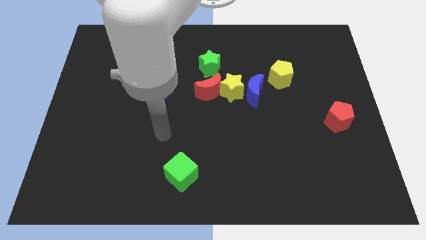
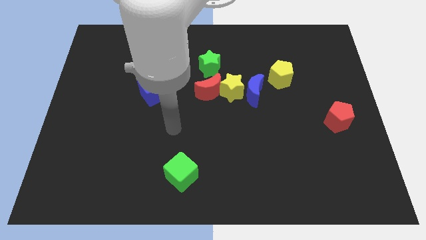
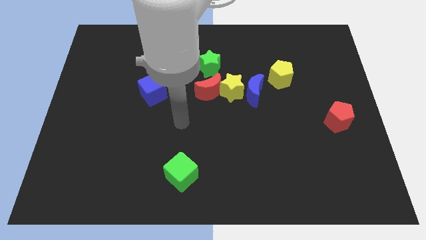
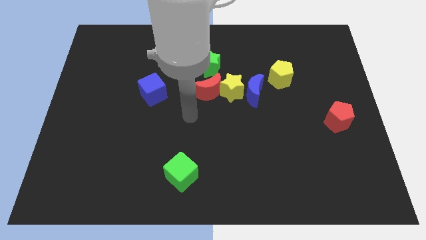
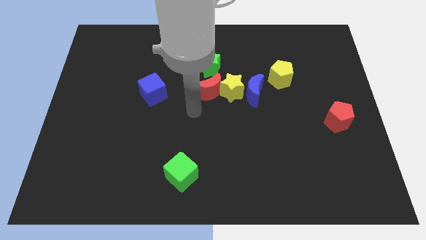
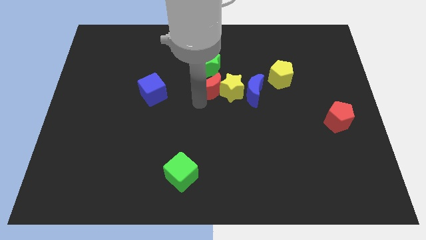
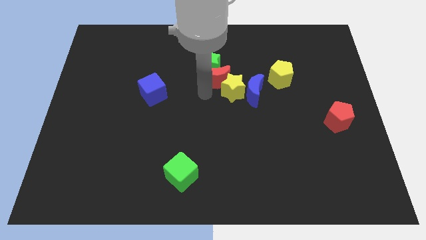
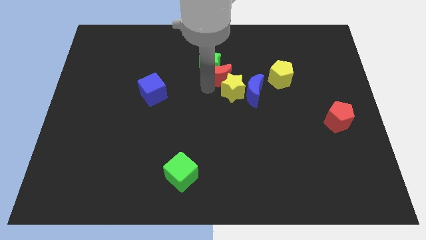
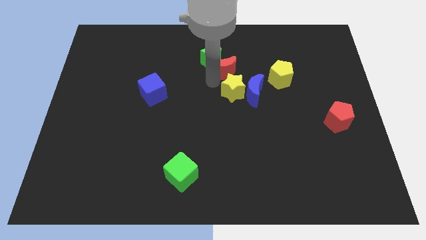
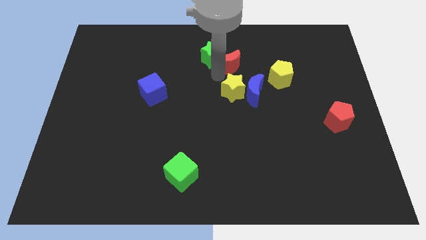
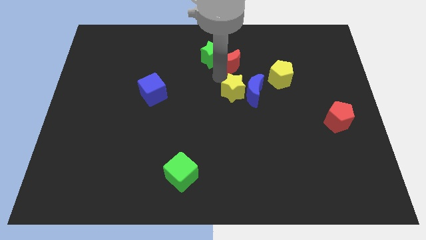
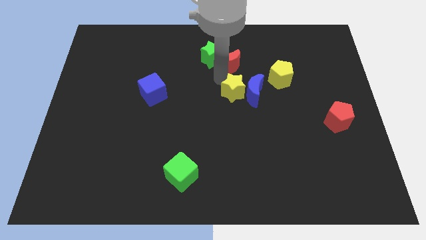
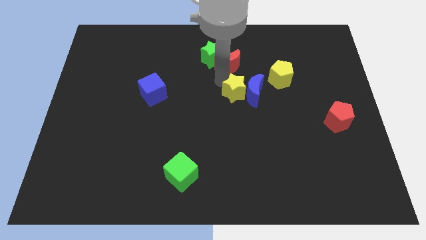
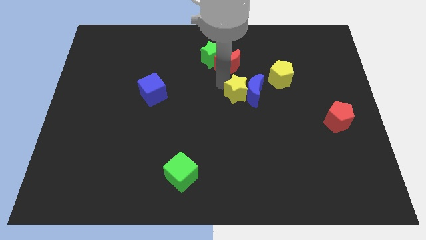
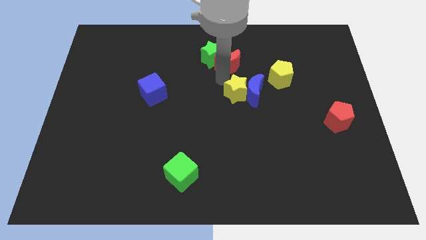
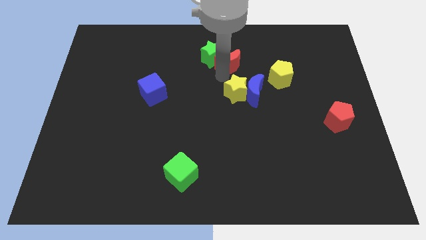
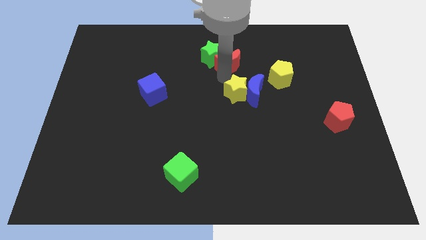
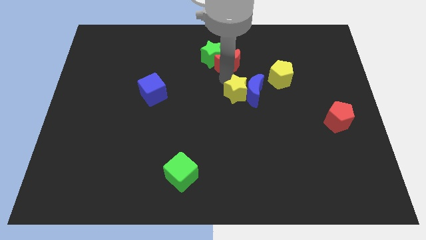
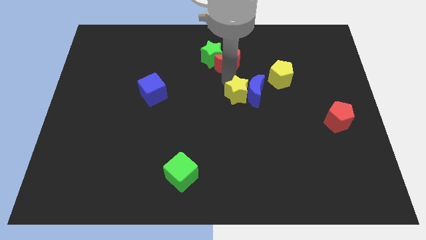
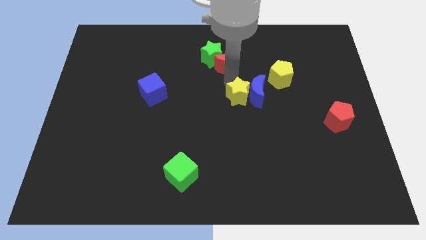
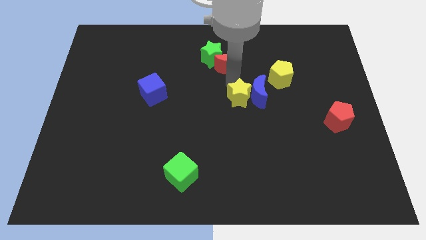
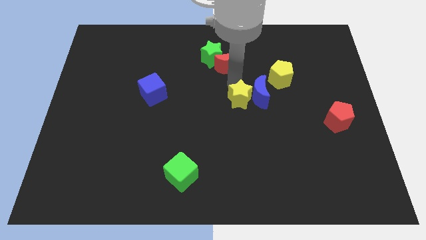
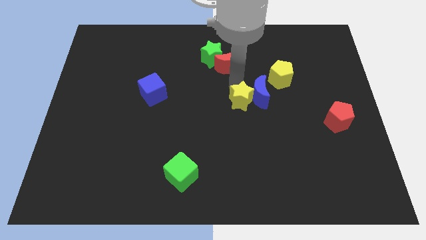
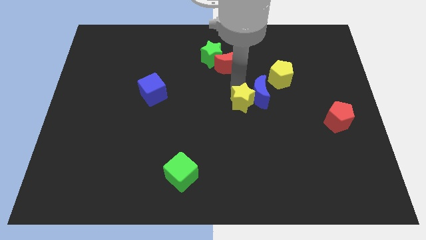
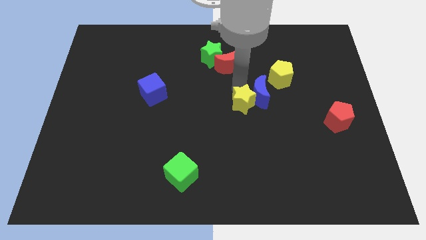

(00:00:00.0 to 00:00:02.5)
pull the yellow star apart from the blue moon, red moon, and green star

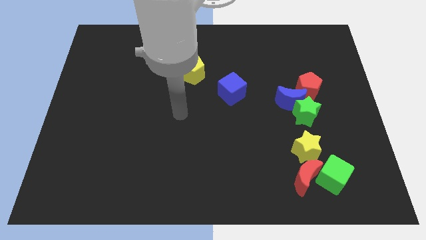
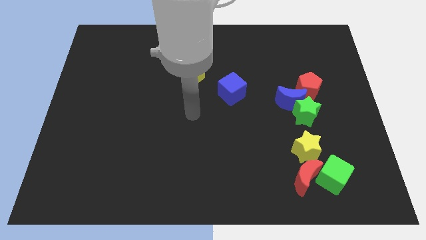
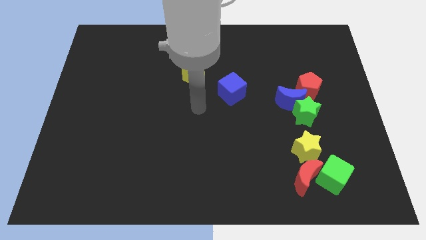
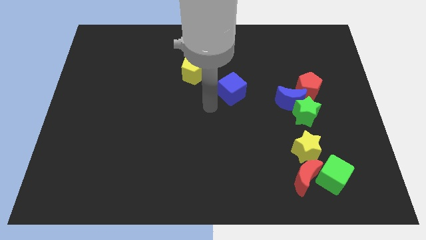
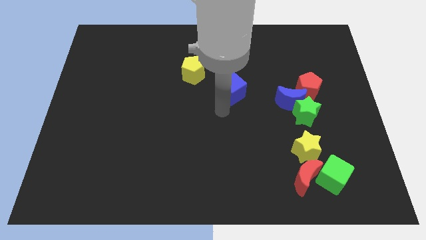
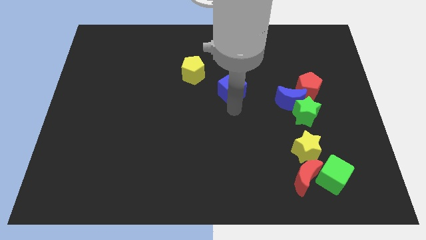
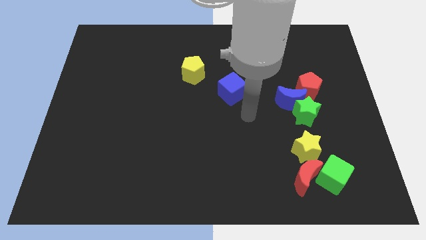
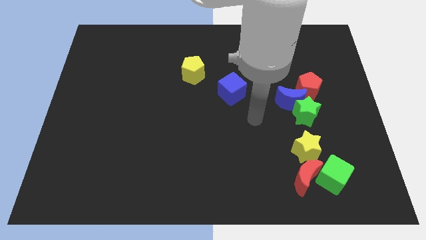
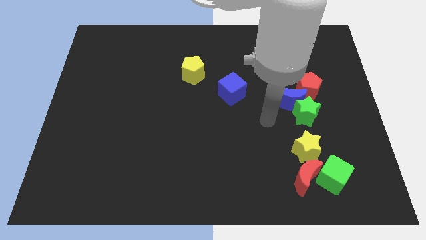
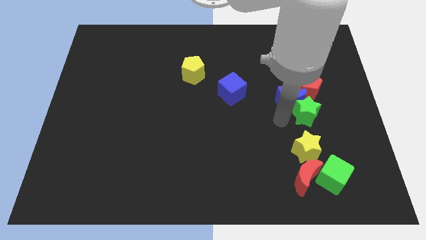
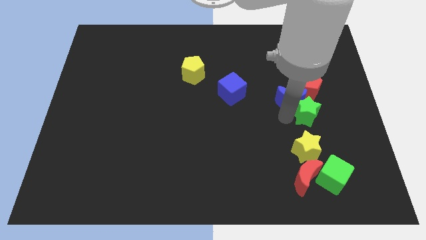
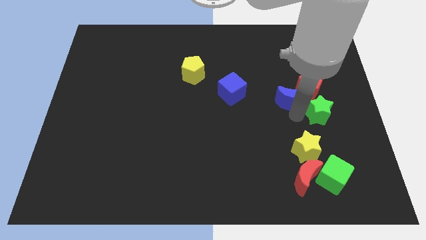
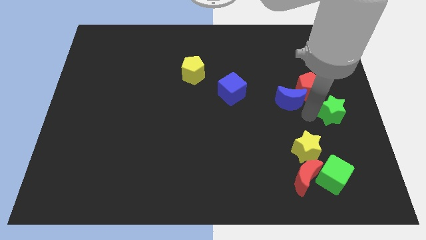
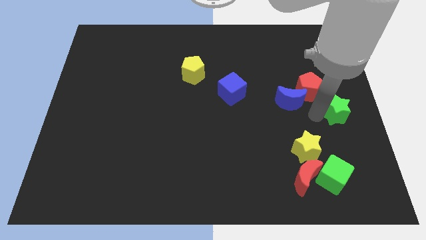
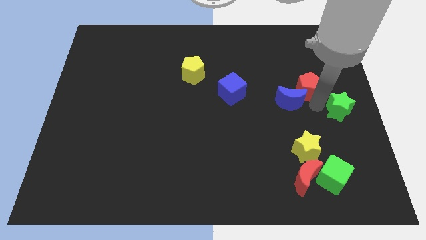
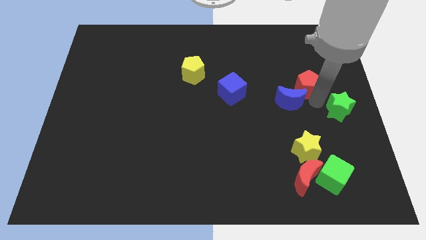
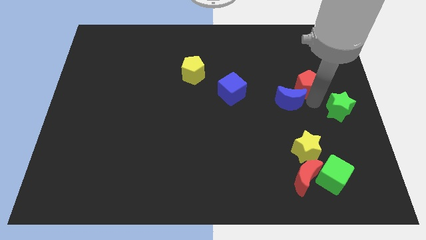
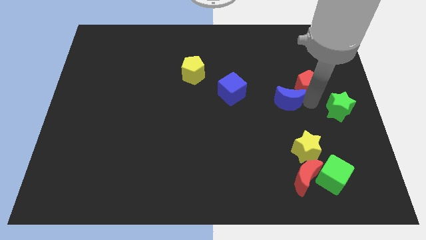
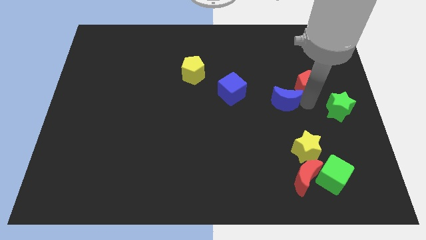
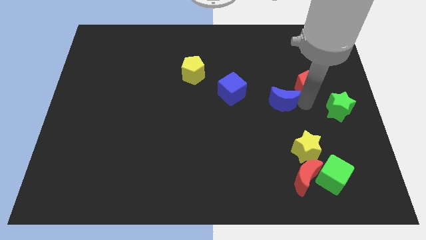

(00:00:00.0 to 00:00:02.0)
separate the blue moon from the green star and red pentagon

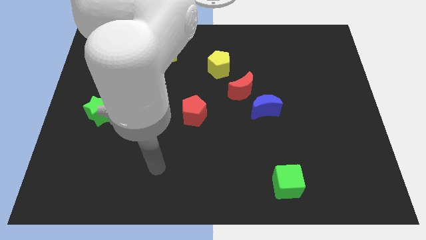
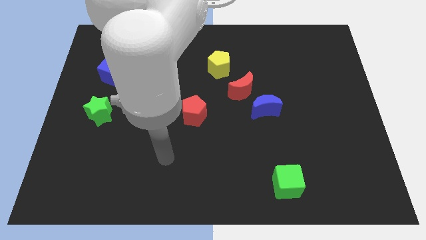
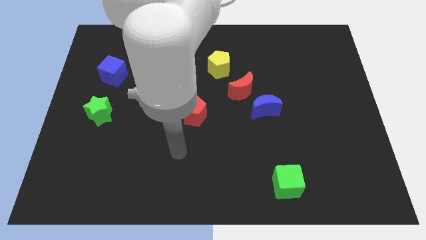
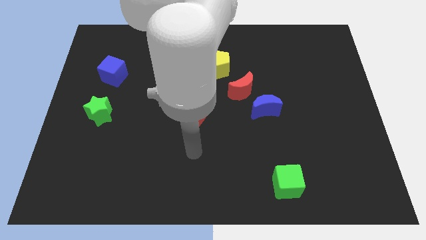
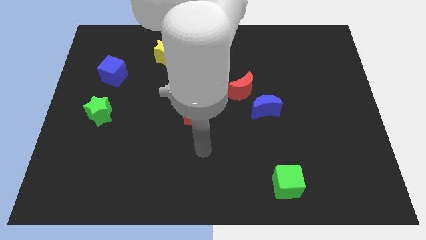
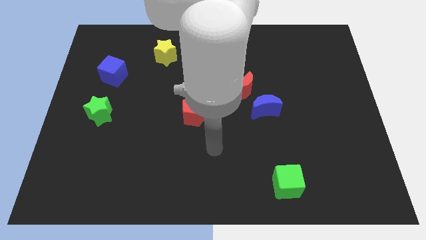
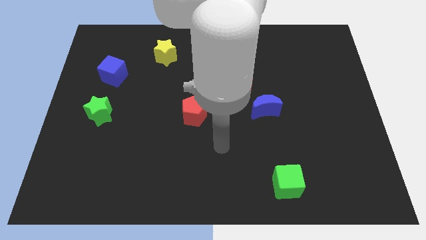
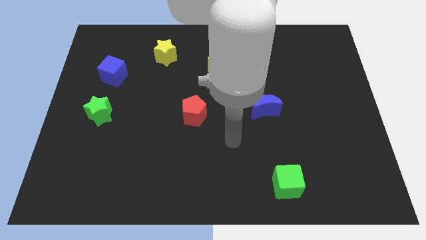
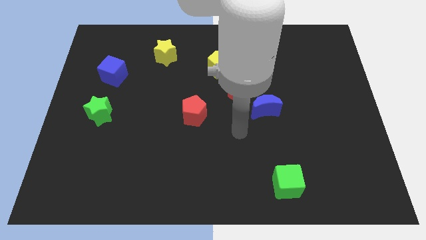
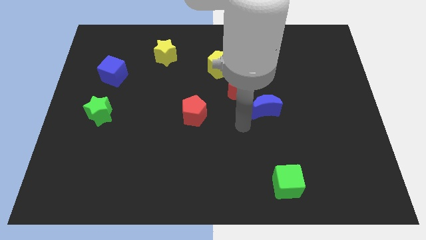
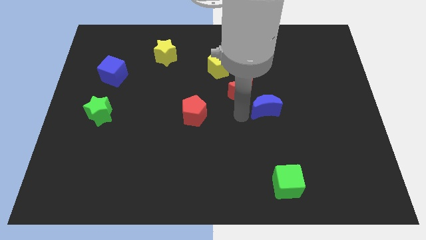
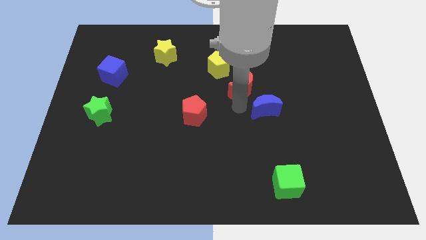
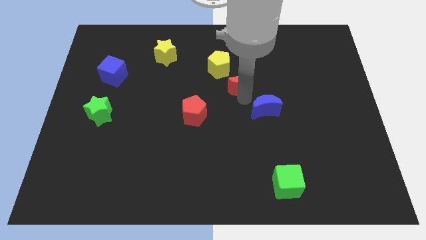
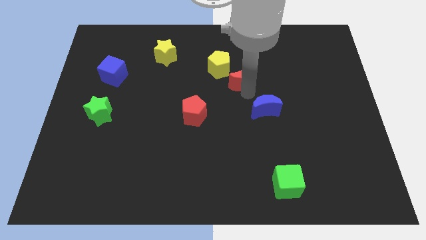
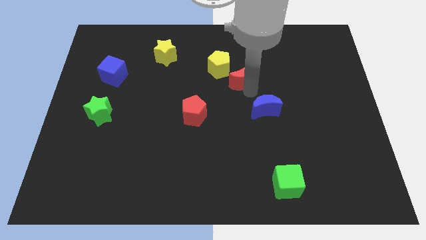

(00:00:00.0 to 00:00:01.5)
separate the blue moon from the red moon

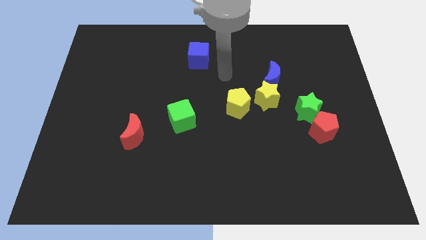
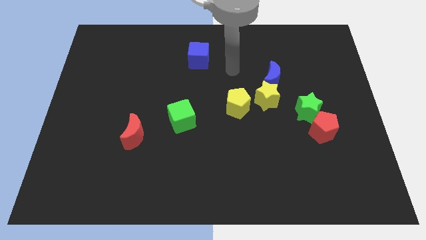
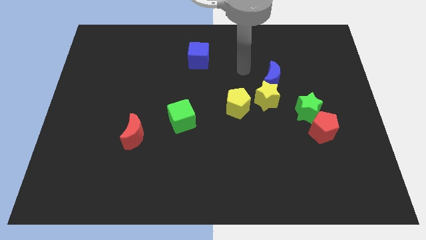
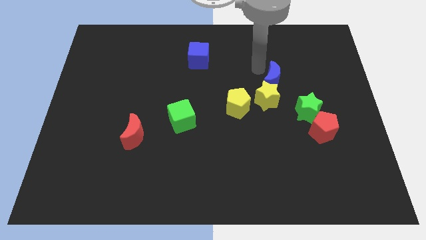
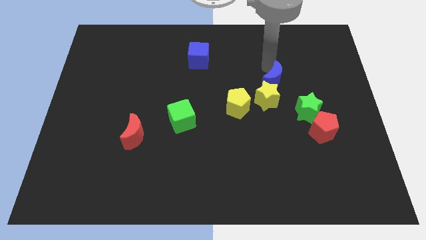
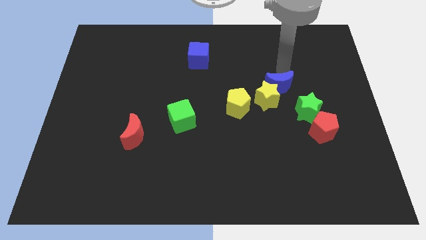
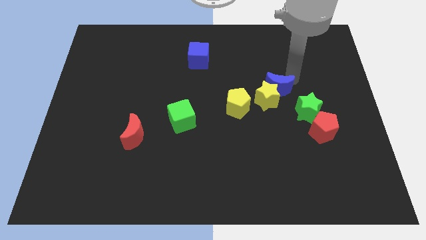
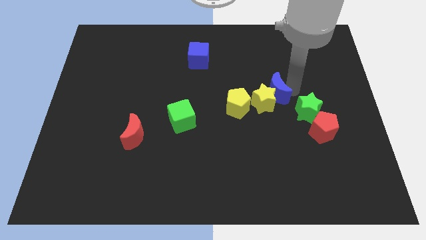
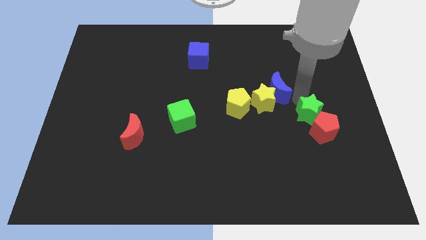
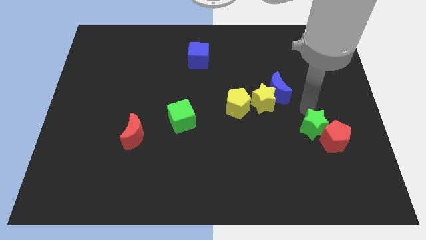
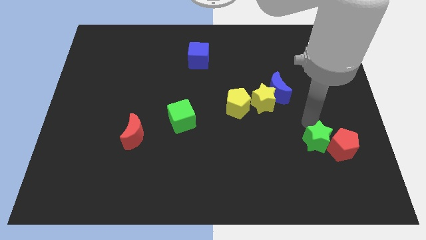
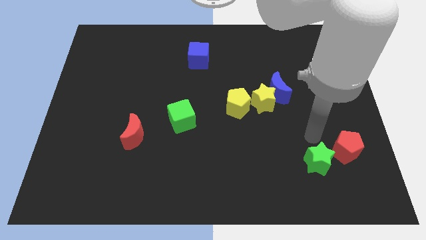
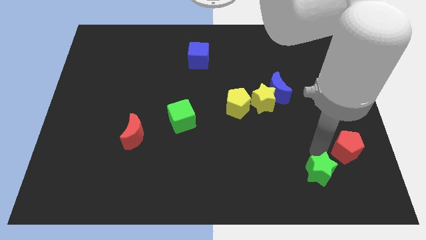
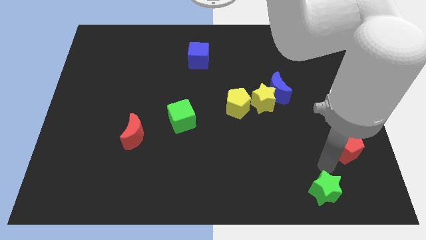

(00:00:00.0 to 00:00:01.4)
pull the red pentagon apart from the green star

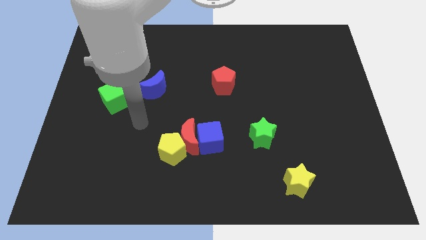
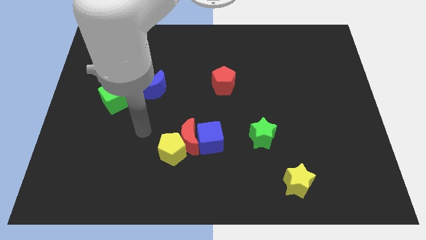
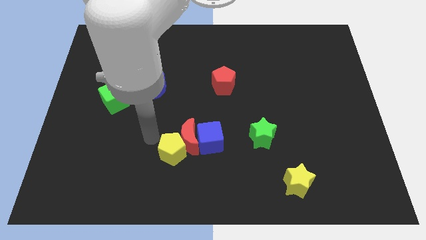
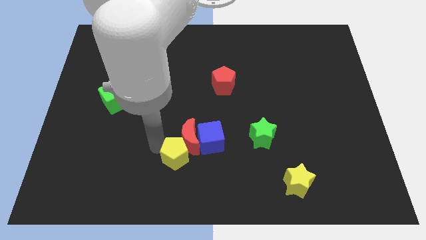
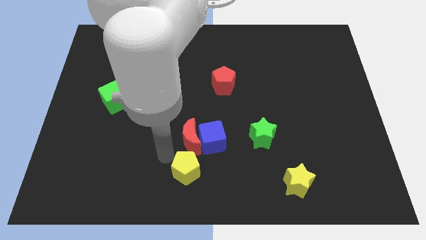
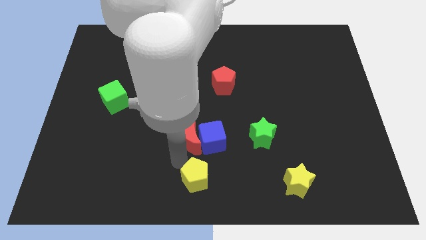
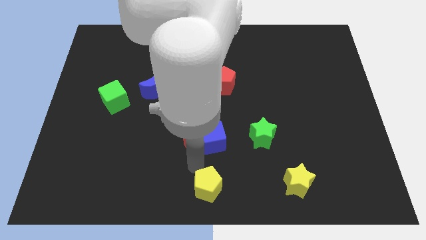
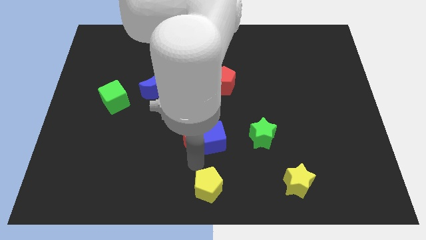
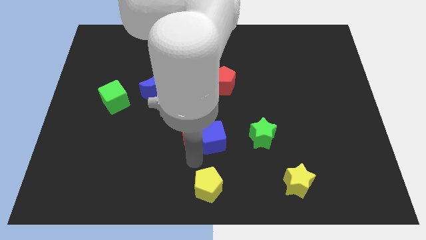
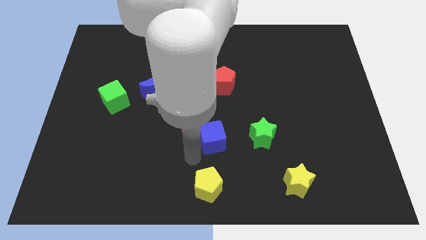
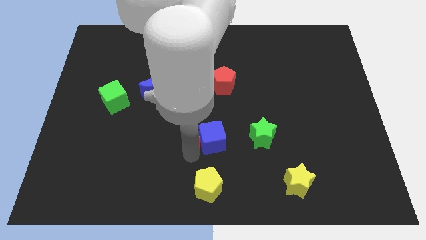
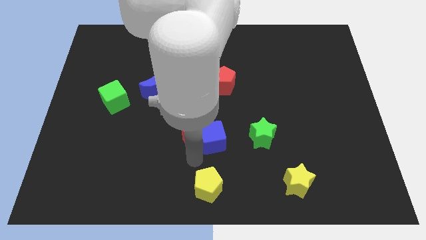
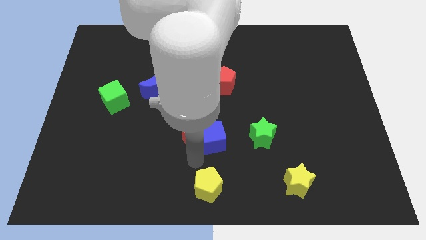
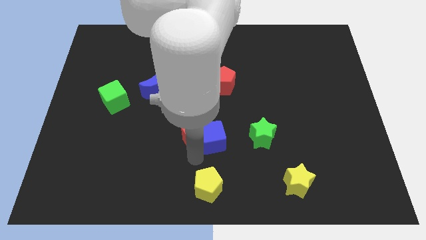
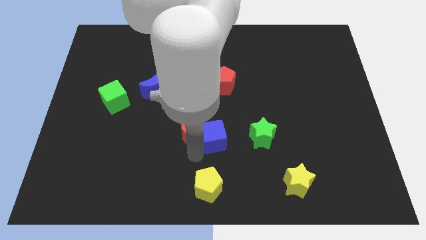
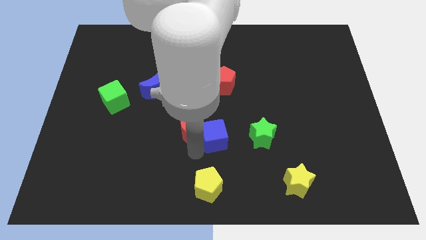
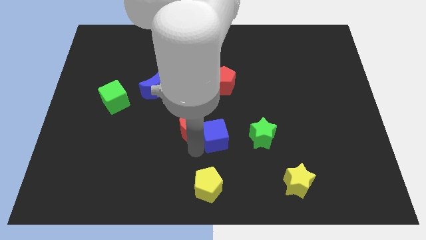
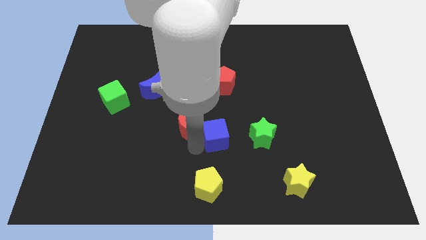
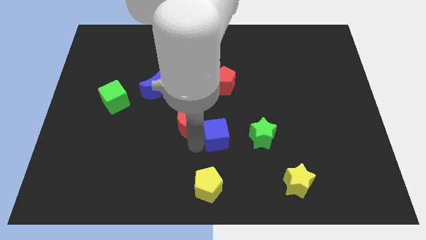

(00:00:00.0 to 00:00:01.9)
pull the red moon apart from the blue cube and yellow pentagon
